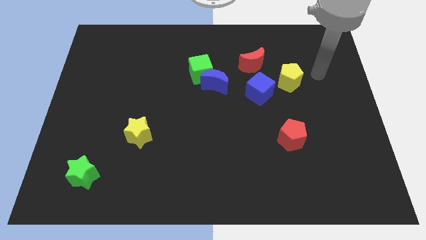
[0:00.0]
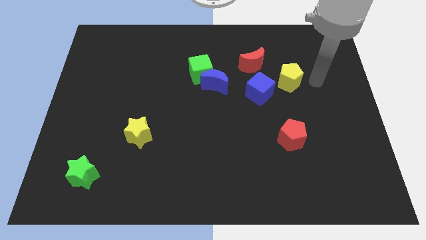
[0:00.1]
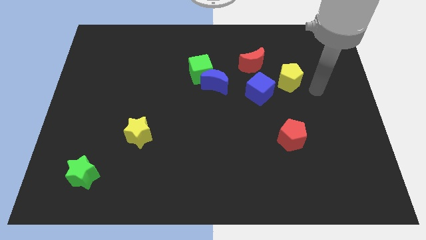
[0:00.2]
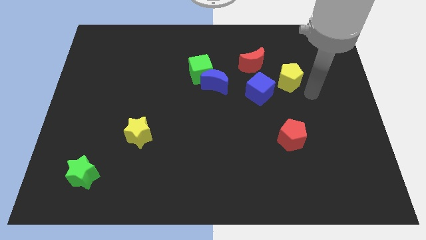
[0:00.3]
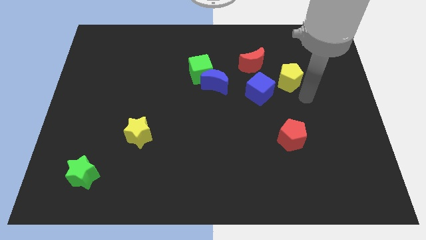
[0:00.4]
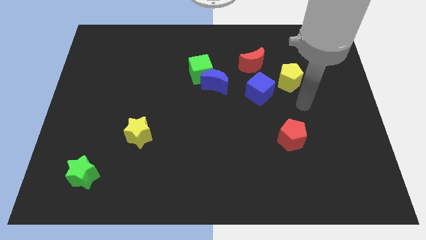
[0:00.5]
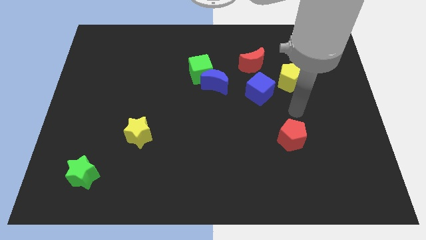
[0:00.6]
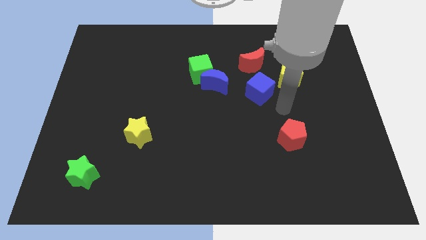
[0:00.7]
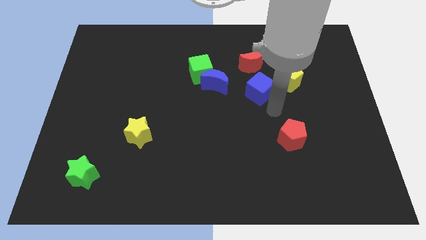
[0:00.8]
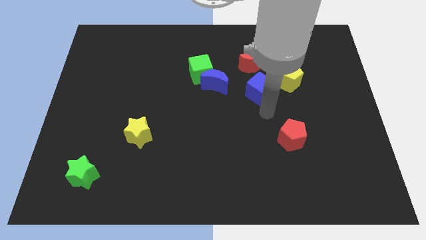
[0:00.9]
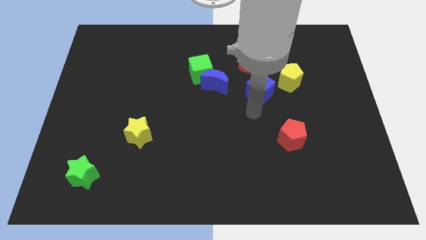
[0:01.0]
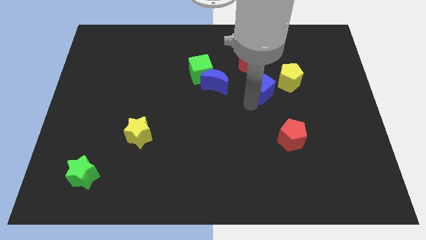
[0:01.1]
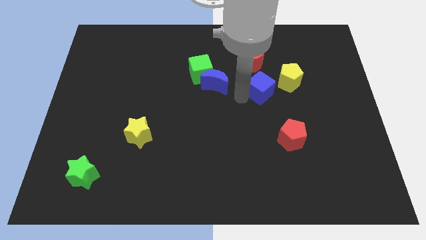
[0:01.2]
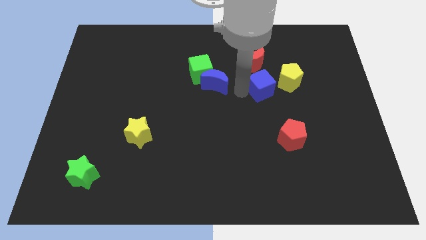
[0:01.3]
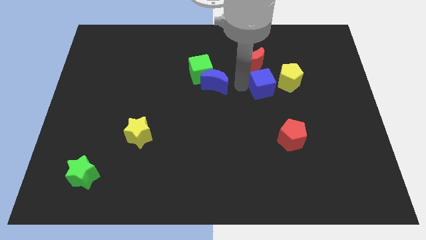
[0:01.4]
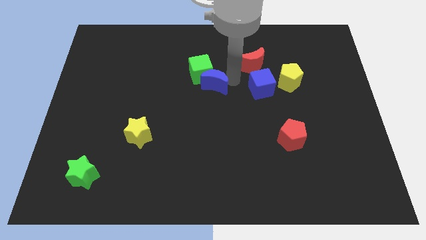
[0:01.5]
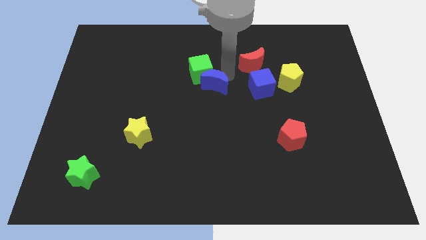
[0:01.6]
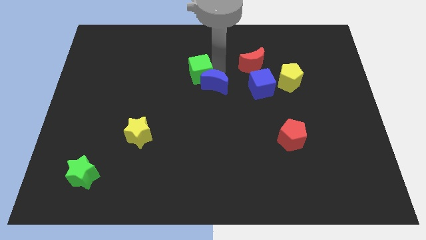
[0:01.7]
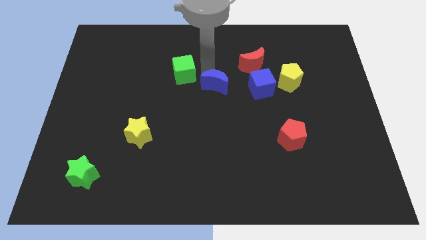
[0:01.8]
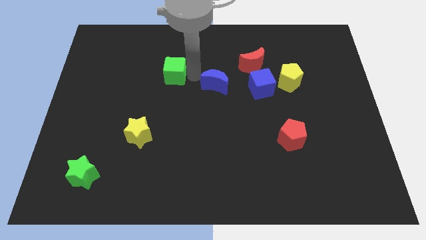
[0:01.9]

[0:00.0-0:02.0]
move the blue moon away from the green cube

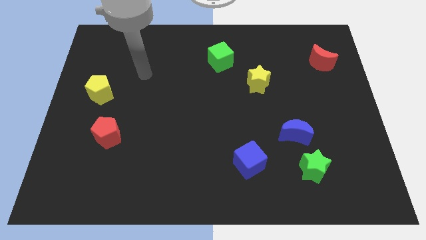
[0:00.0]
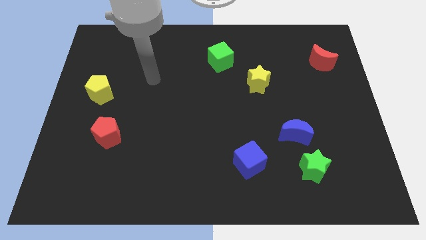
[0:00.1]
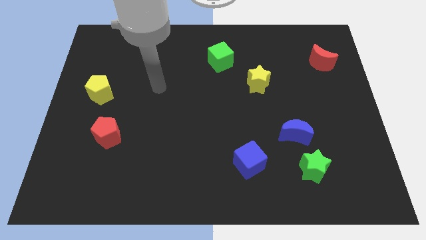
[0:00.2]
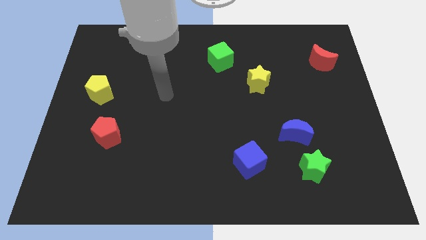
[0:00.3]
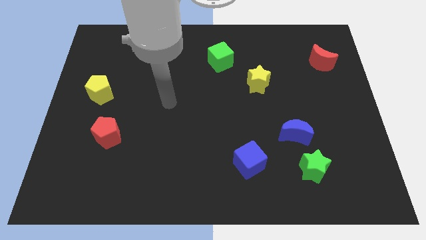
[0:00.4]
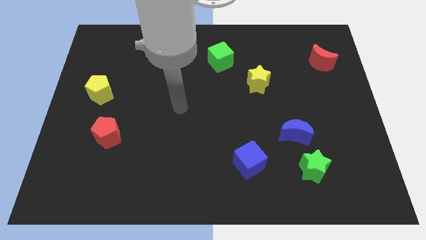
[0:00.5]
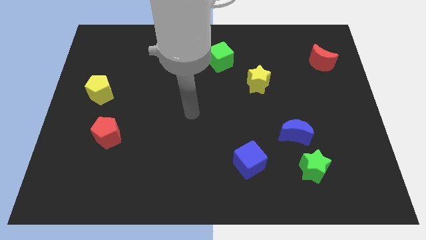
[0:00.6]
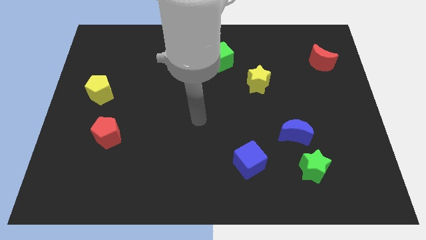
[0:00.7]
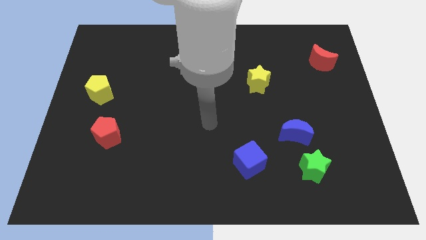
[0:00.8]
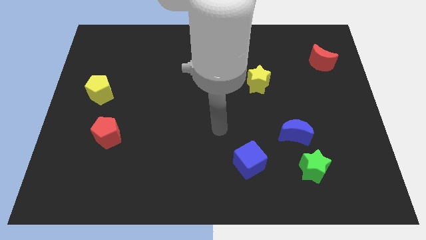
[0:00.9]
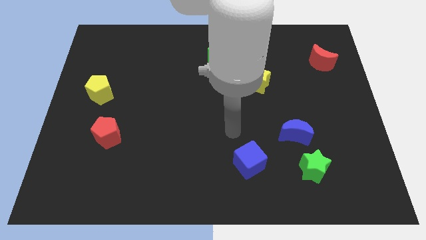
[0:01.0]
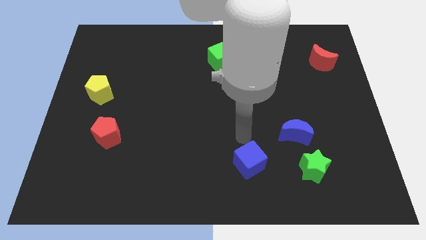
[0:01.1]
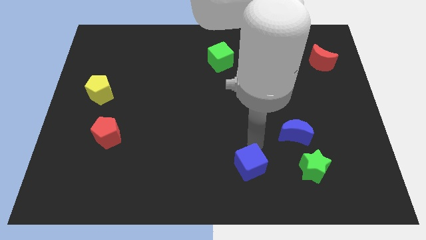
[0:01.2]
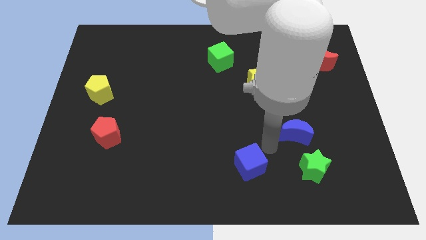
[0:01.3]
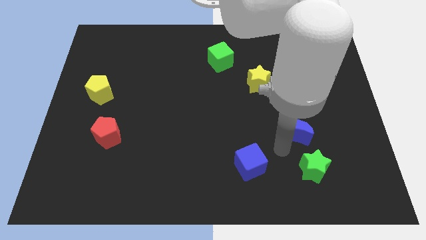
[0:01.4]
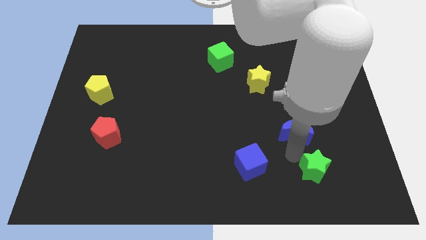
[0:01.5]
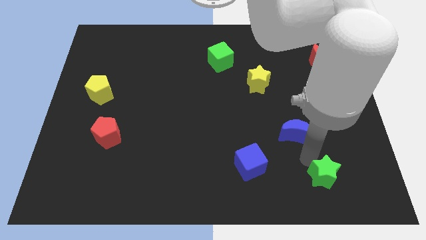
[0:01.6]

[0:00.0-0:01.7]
move the blue moon away from the green star

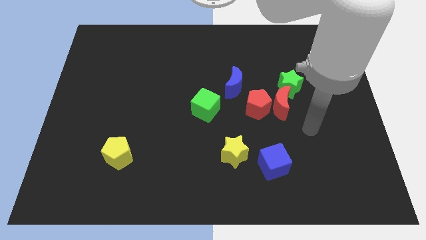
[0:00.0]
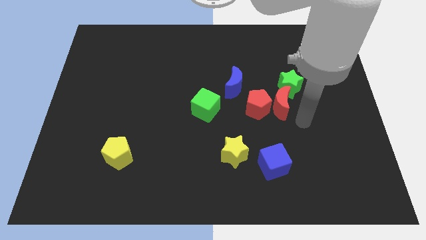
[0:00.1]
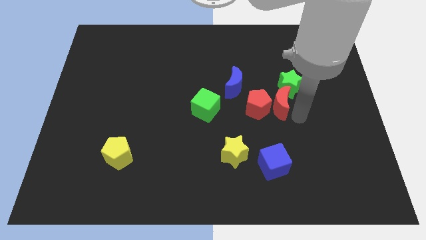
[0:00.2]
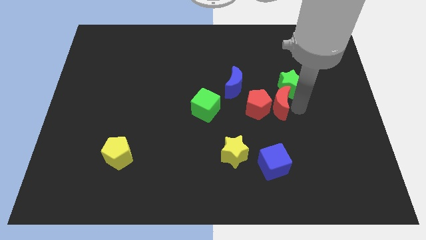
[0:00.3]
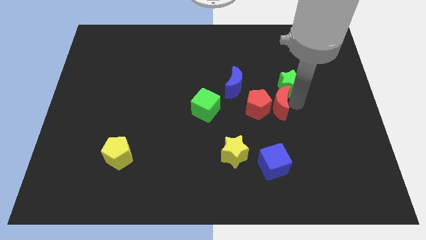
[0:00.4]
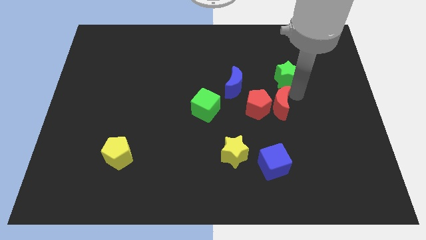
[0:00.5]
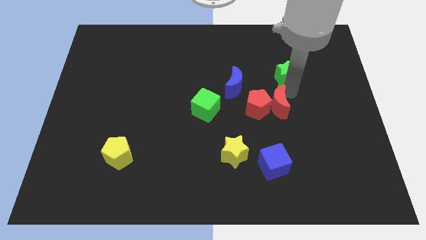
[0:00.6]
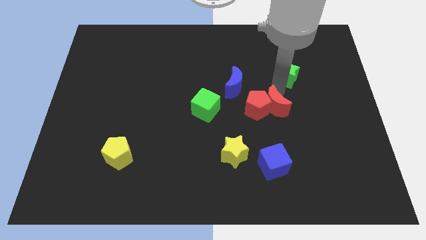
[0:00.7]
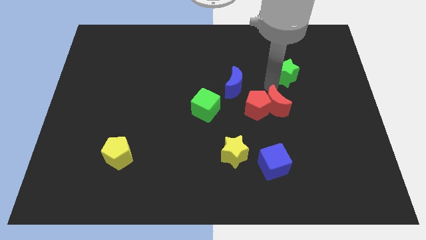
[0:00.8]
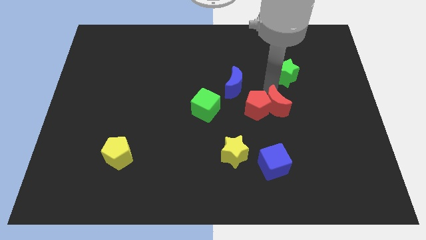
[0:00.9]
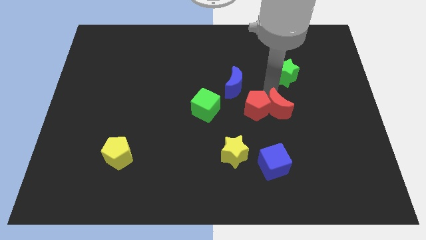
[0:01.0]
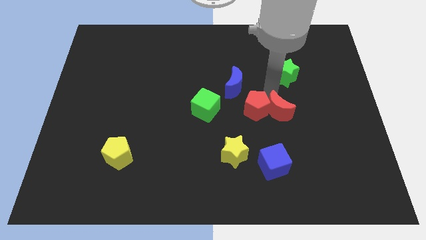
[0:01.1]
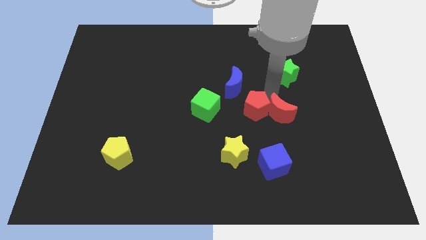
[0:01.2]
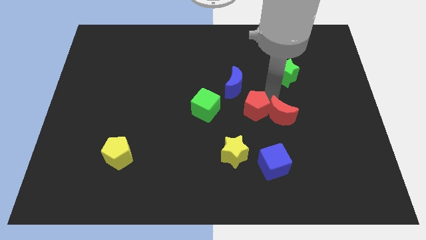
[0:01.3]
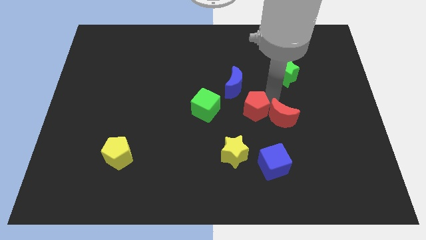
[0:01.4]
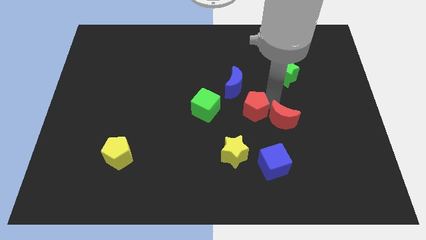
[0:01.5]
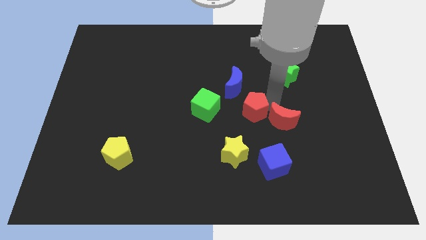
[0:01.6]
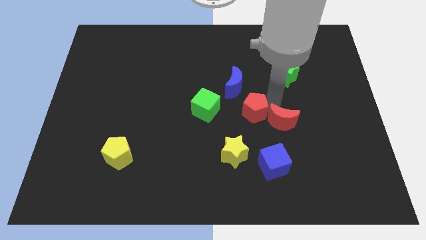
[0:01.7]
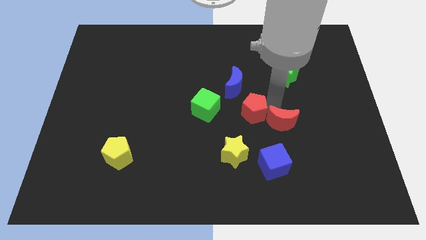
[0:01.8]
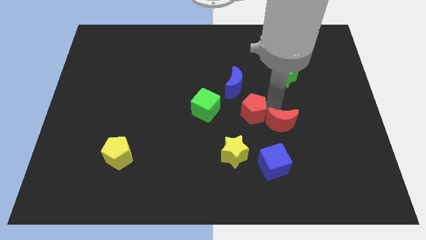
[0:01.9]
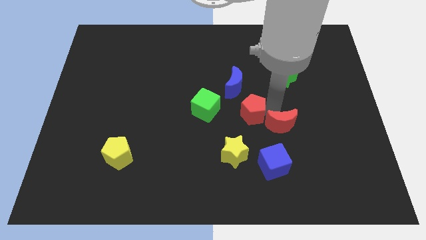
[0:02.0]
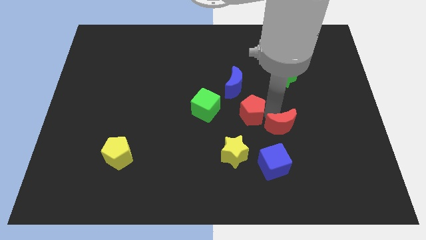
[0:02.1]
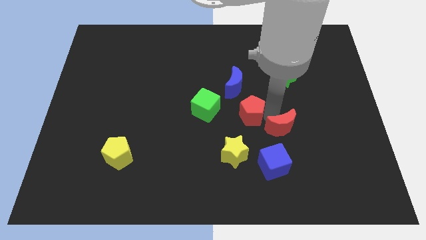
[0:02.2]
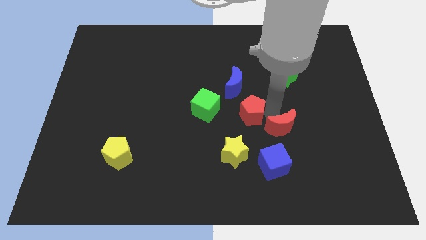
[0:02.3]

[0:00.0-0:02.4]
move the red moon away from the red pentagon and green star

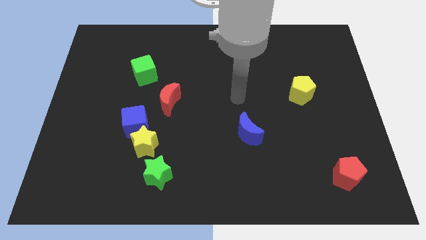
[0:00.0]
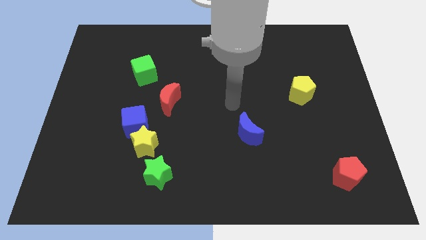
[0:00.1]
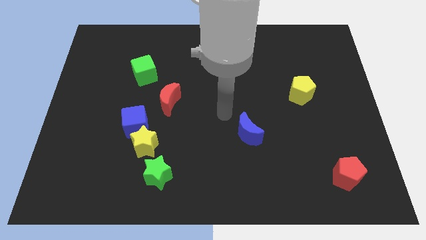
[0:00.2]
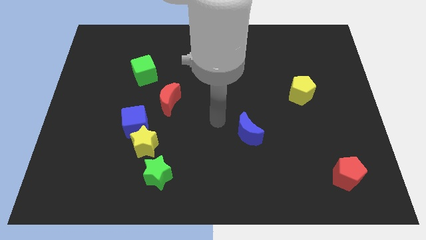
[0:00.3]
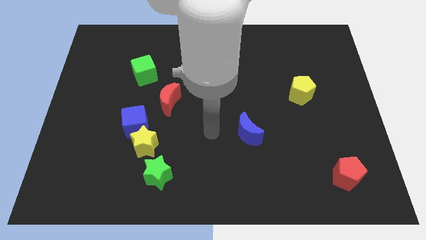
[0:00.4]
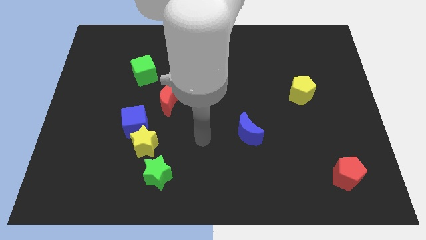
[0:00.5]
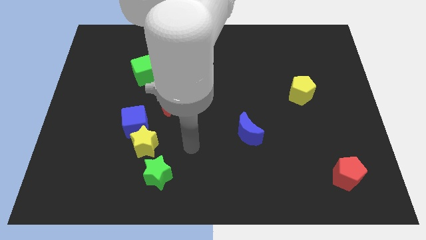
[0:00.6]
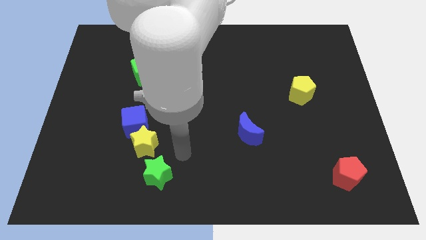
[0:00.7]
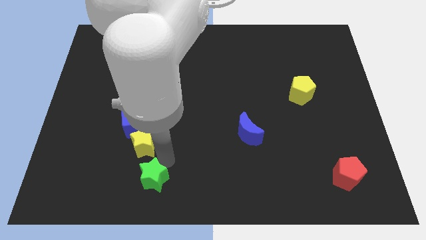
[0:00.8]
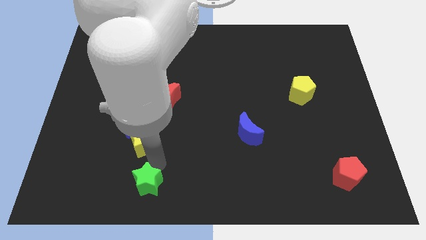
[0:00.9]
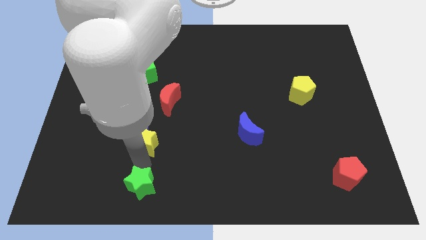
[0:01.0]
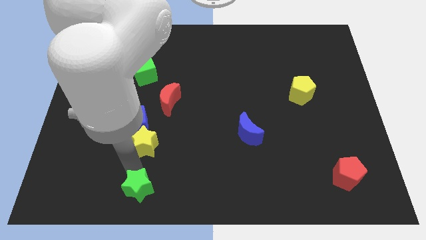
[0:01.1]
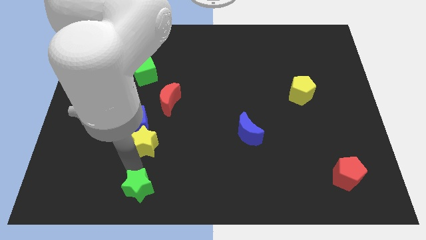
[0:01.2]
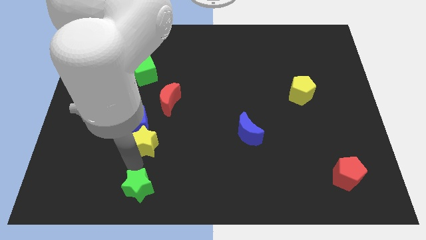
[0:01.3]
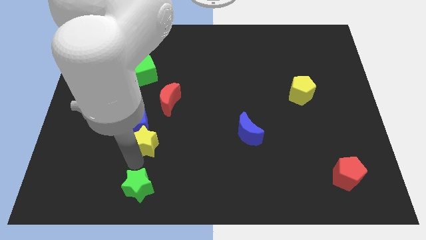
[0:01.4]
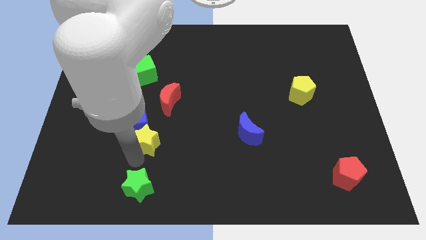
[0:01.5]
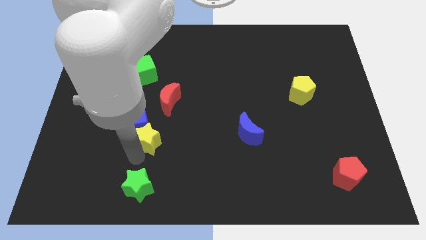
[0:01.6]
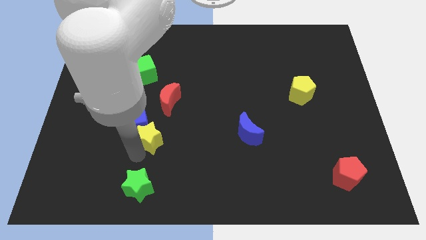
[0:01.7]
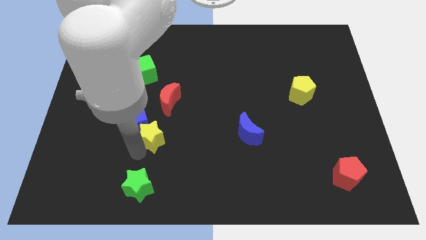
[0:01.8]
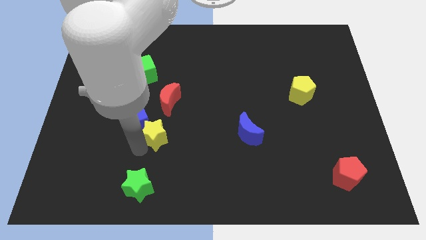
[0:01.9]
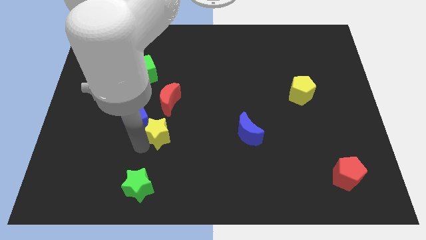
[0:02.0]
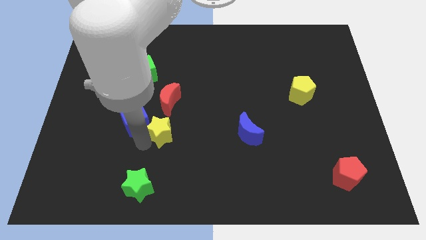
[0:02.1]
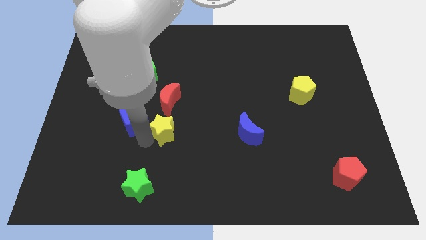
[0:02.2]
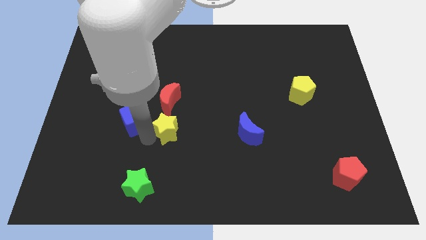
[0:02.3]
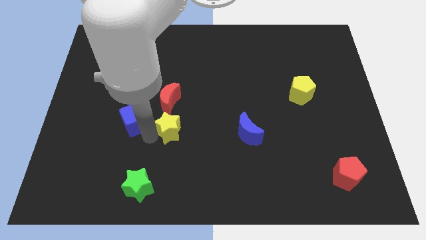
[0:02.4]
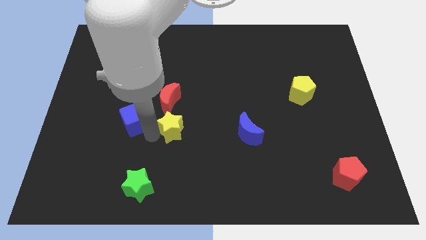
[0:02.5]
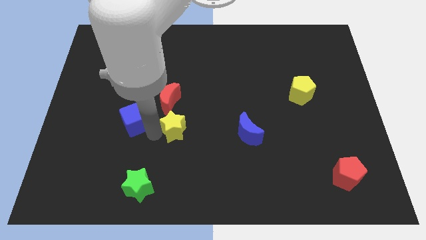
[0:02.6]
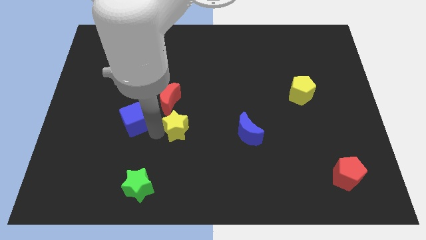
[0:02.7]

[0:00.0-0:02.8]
pull the yellow star apart from the blue cube and green star

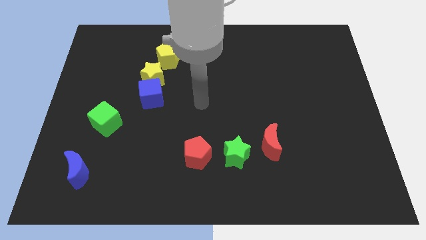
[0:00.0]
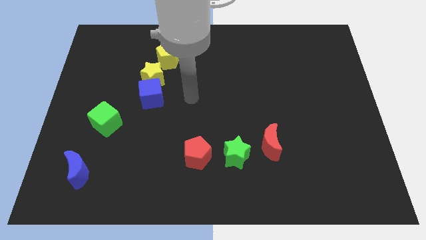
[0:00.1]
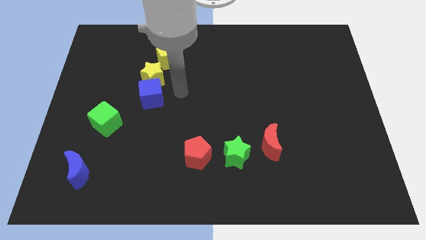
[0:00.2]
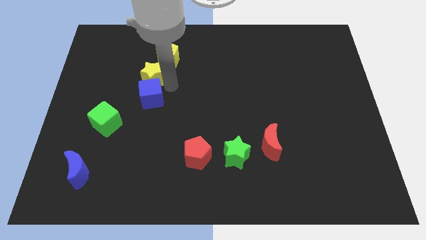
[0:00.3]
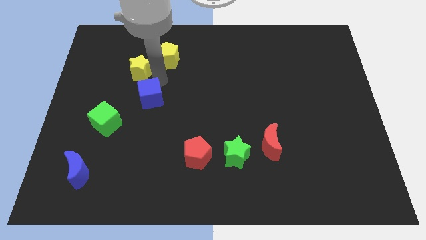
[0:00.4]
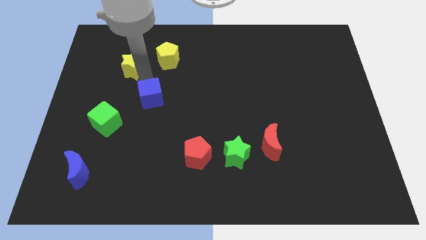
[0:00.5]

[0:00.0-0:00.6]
pull the blue cube apart from the yellow star
